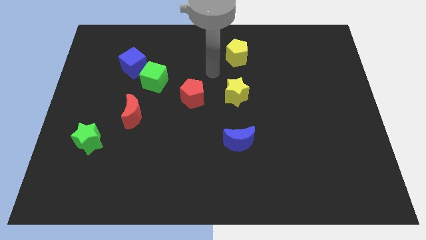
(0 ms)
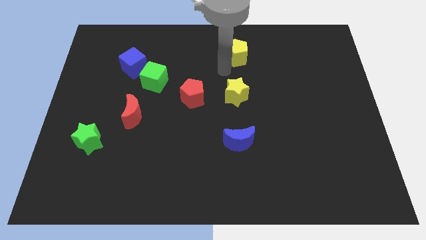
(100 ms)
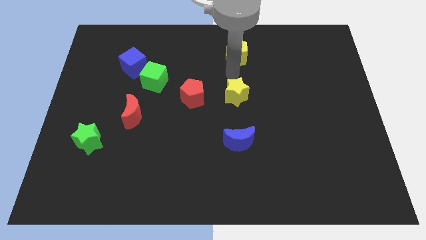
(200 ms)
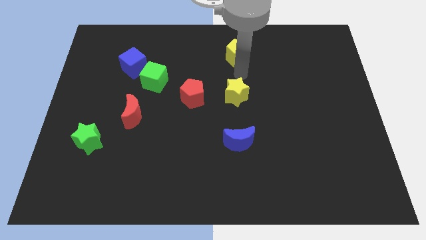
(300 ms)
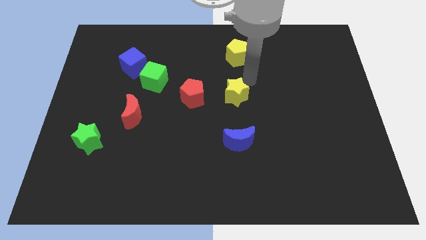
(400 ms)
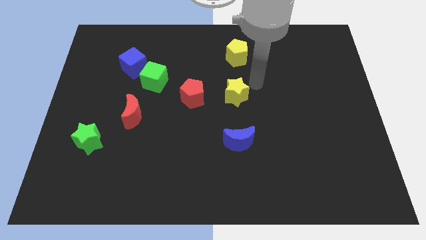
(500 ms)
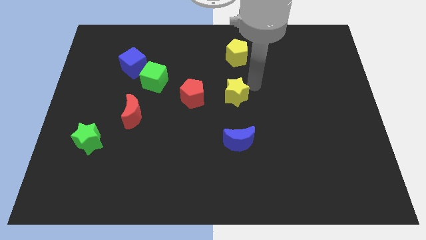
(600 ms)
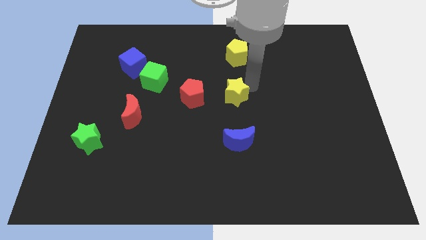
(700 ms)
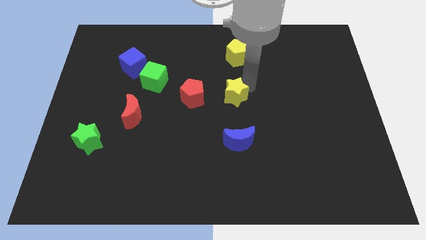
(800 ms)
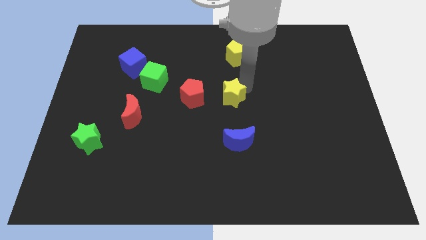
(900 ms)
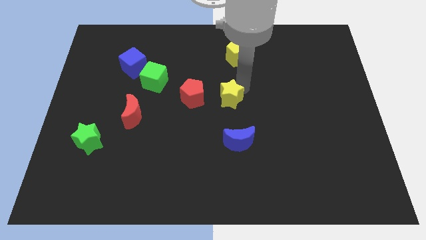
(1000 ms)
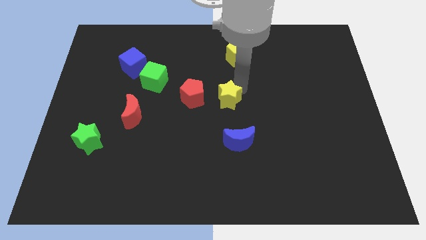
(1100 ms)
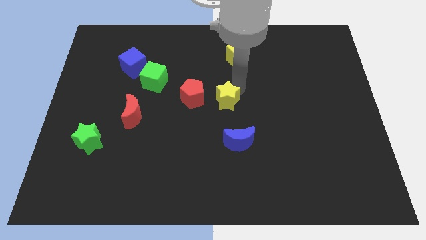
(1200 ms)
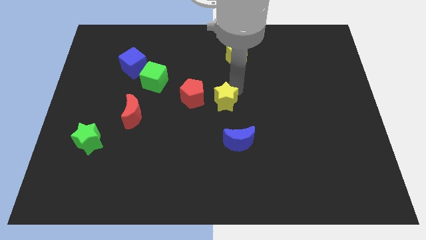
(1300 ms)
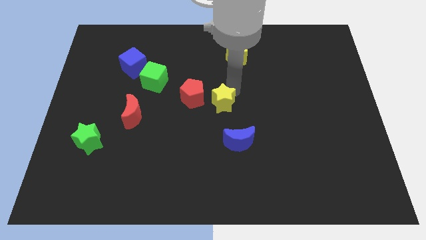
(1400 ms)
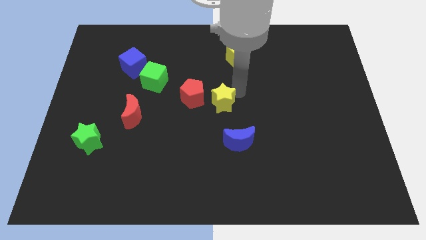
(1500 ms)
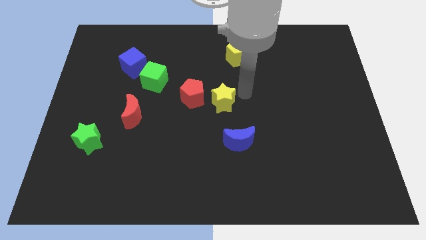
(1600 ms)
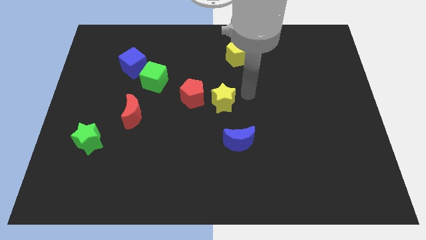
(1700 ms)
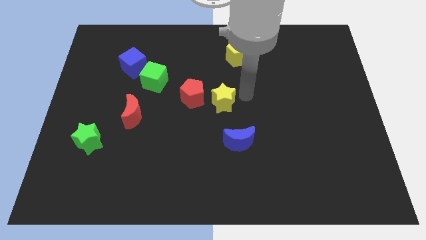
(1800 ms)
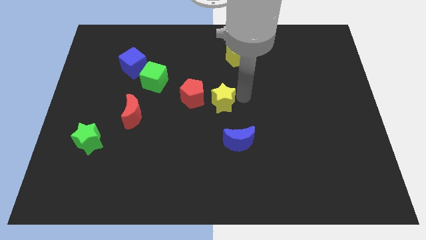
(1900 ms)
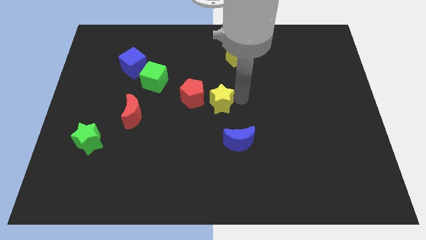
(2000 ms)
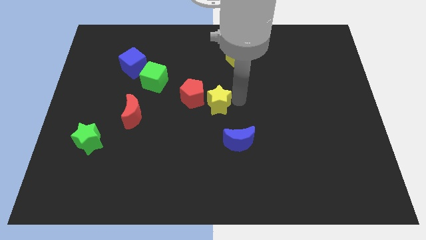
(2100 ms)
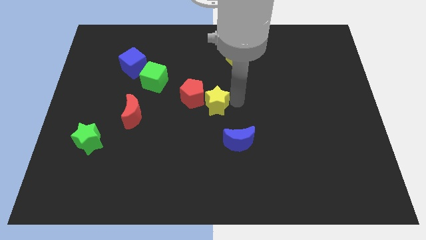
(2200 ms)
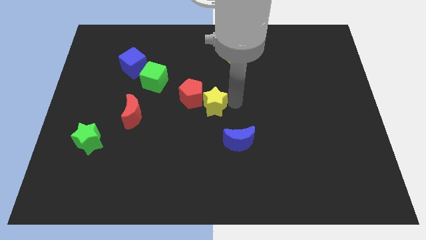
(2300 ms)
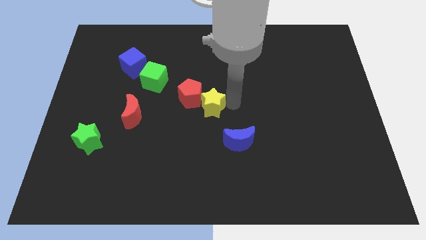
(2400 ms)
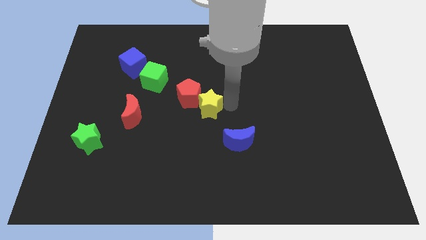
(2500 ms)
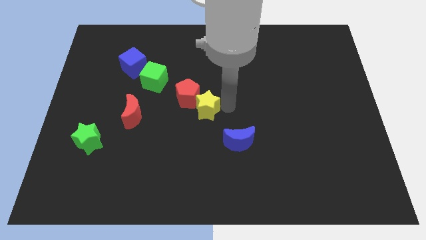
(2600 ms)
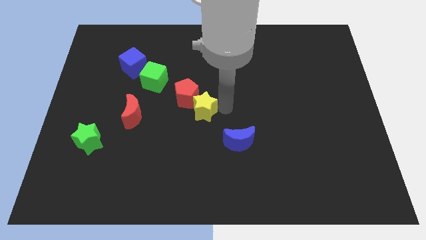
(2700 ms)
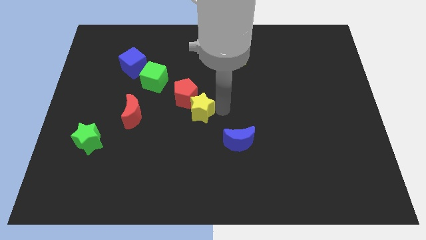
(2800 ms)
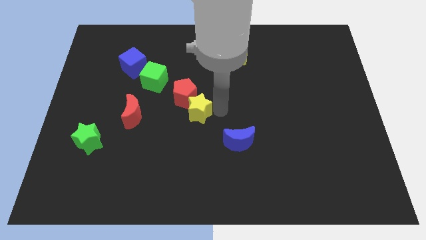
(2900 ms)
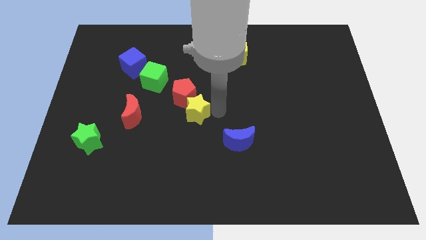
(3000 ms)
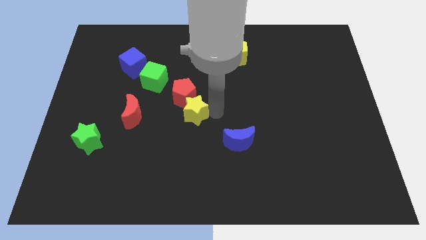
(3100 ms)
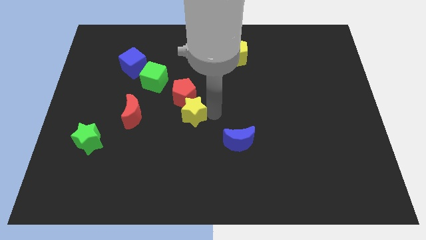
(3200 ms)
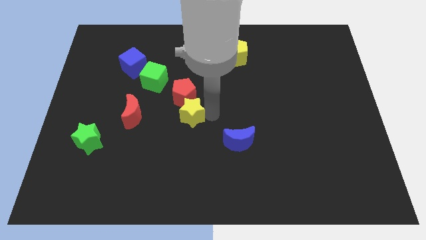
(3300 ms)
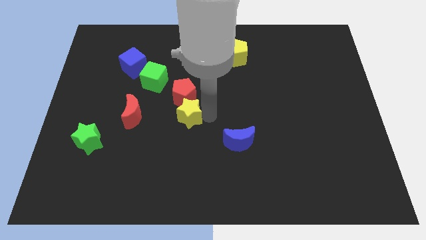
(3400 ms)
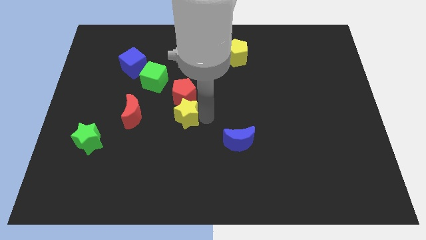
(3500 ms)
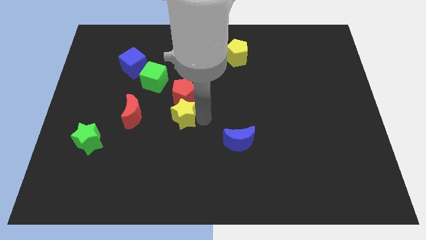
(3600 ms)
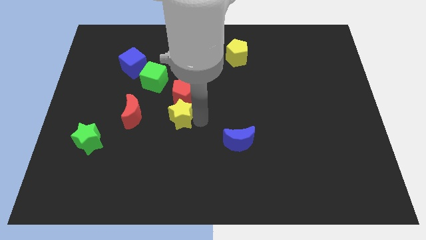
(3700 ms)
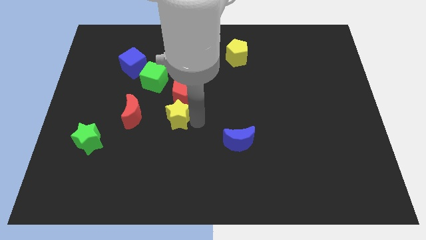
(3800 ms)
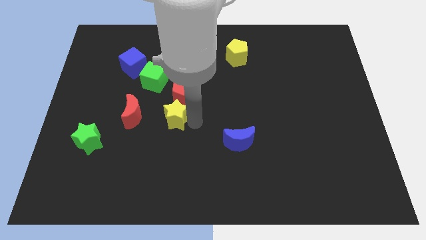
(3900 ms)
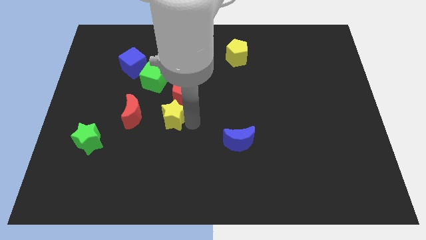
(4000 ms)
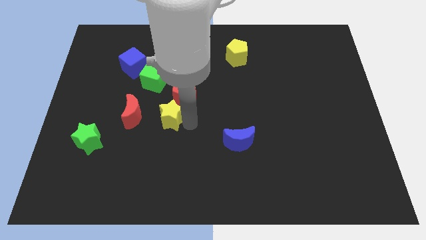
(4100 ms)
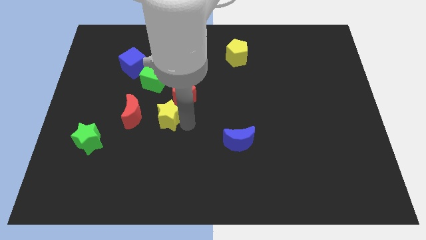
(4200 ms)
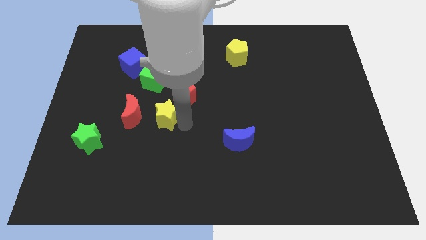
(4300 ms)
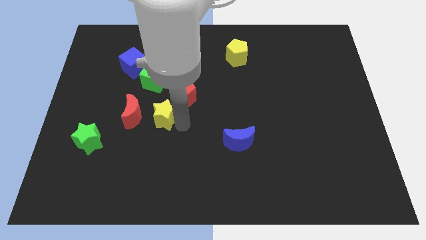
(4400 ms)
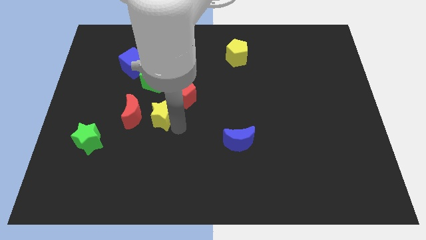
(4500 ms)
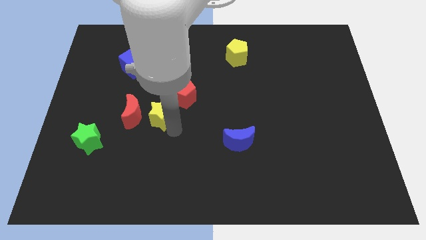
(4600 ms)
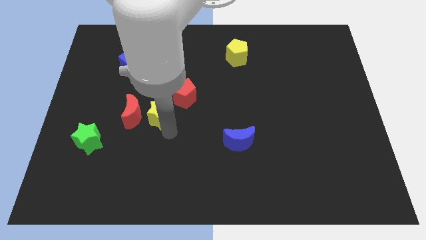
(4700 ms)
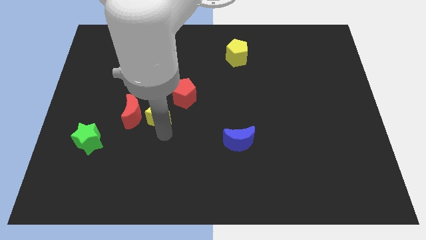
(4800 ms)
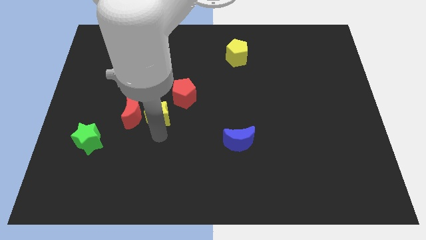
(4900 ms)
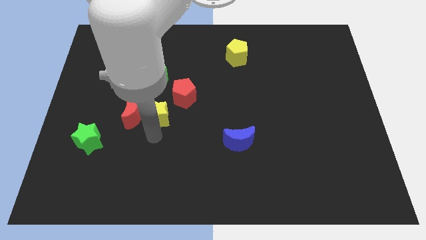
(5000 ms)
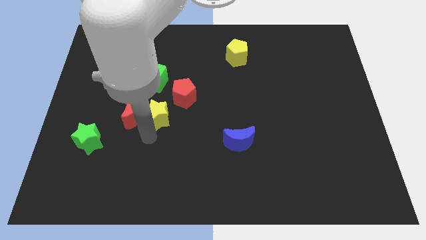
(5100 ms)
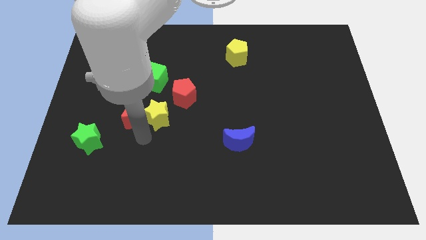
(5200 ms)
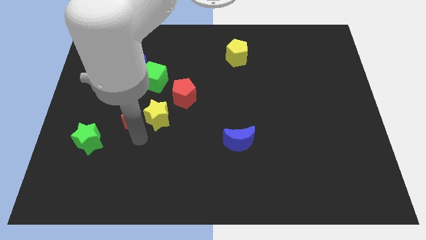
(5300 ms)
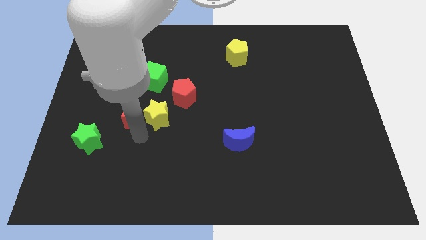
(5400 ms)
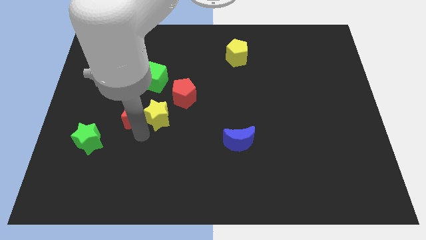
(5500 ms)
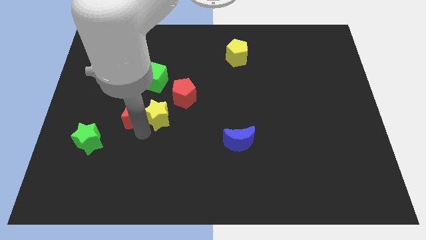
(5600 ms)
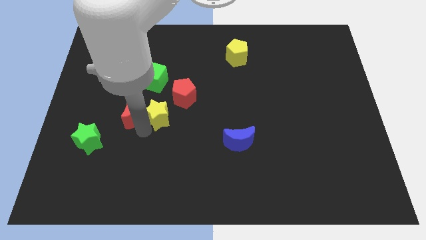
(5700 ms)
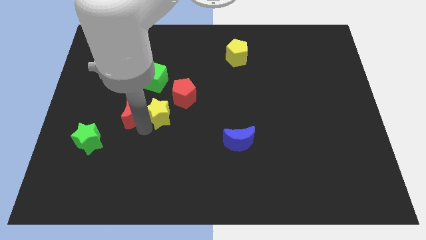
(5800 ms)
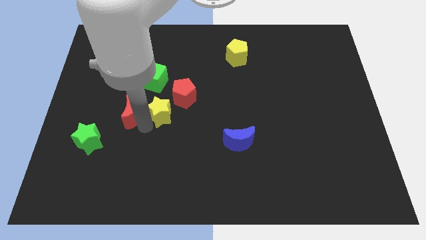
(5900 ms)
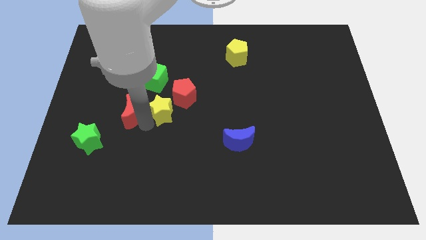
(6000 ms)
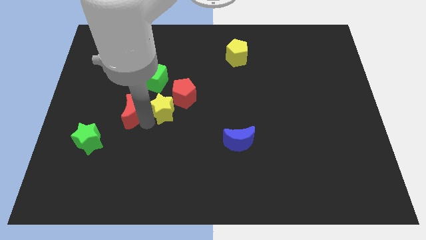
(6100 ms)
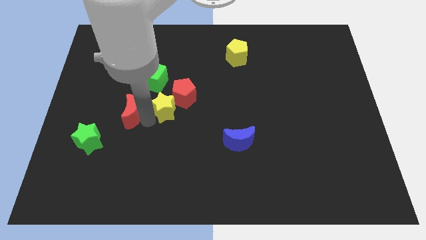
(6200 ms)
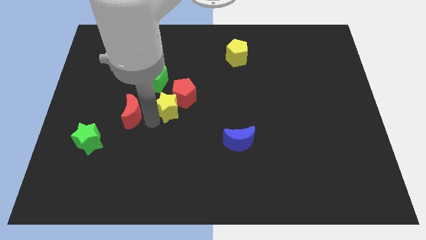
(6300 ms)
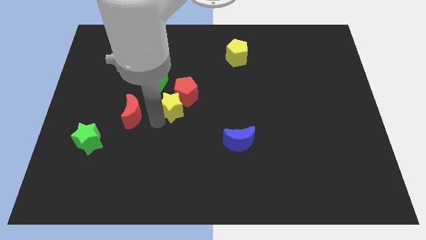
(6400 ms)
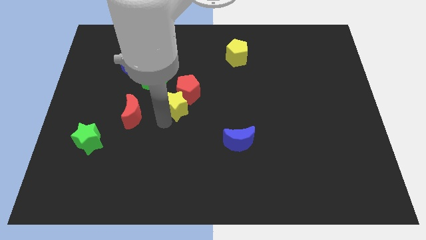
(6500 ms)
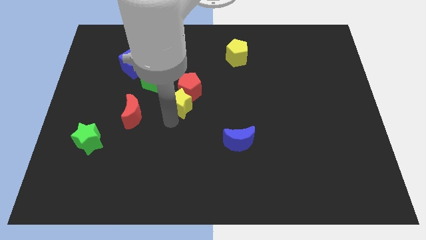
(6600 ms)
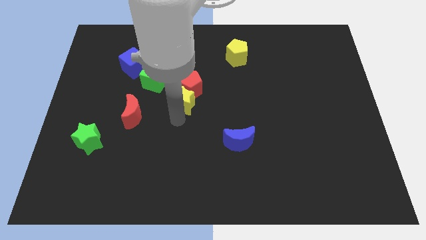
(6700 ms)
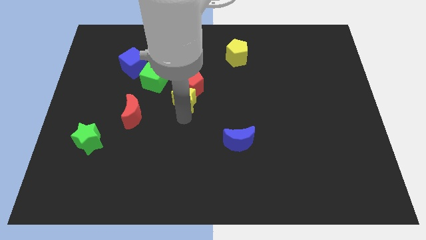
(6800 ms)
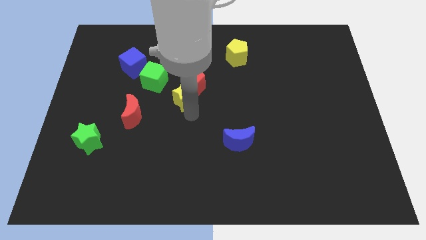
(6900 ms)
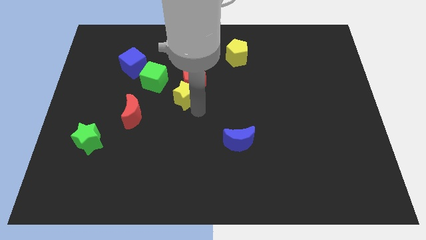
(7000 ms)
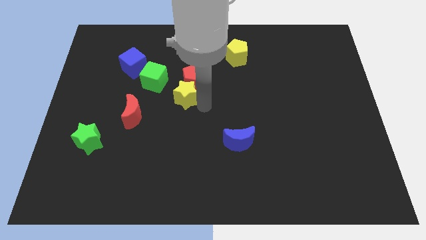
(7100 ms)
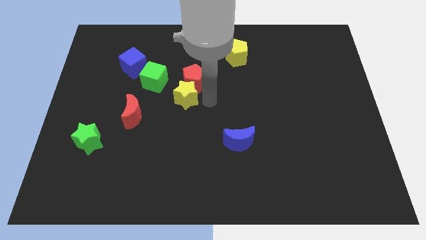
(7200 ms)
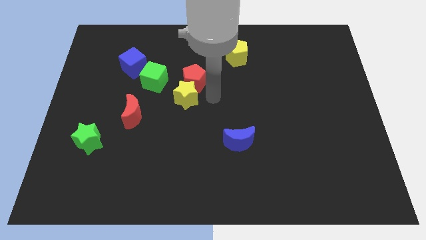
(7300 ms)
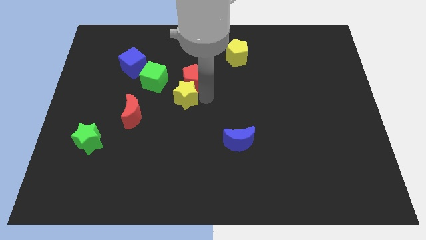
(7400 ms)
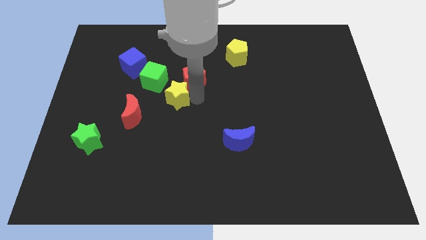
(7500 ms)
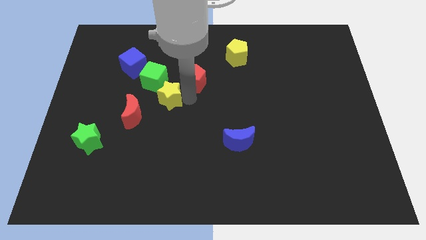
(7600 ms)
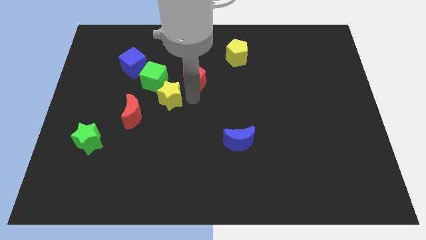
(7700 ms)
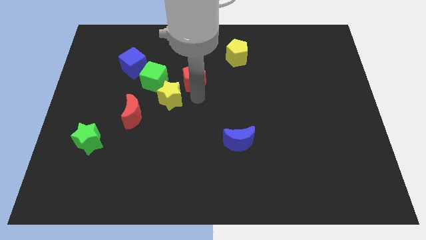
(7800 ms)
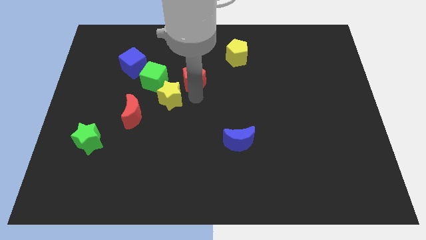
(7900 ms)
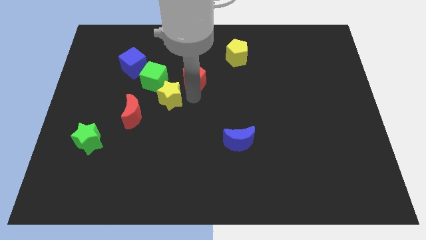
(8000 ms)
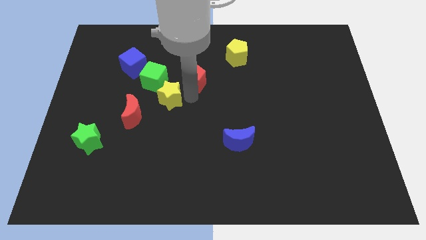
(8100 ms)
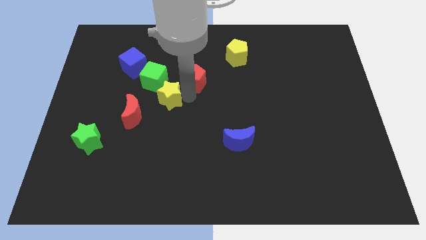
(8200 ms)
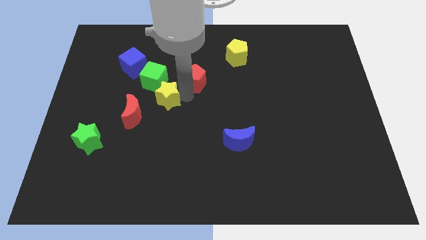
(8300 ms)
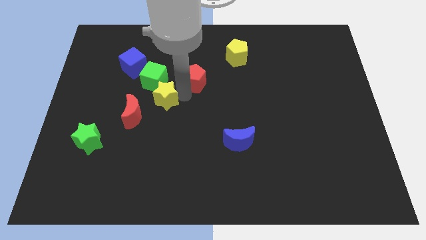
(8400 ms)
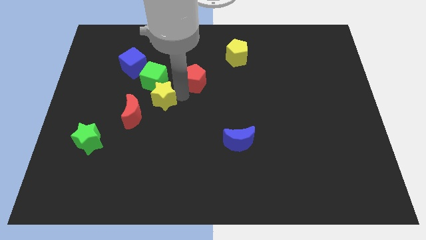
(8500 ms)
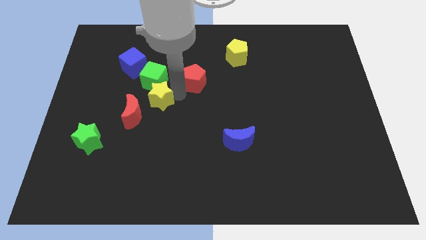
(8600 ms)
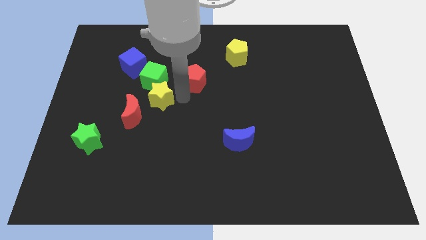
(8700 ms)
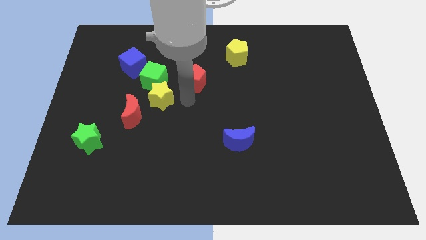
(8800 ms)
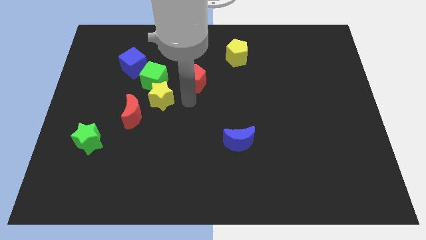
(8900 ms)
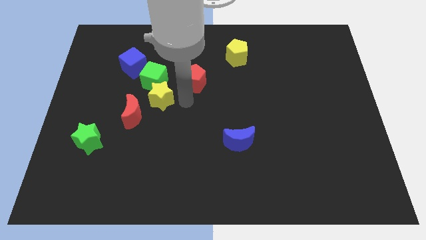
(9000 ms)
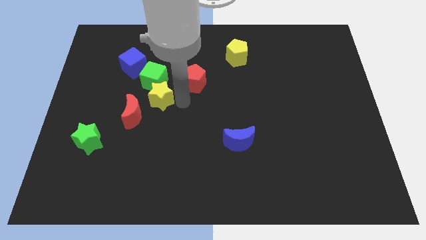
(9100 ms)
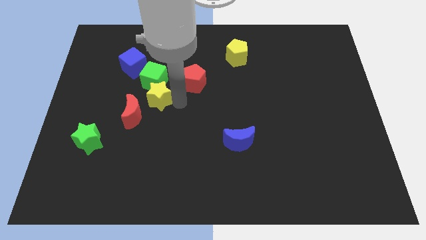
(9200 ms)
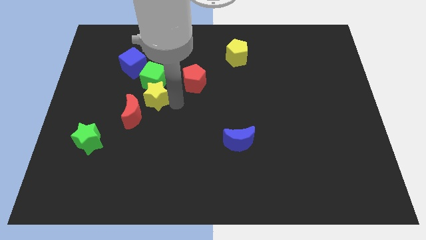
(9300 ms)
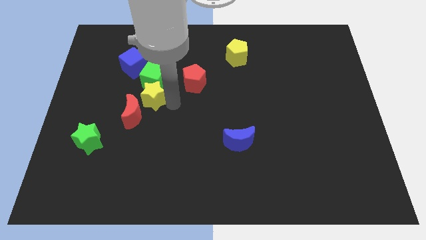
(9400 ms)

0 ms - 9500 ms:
move the yellow star to the left
